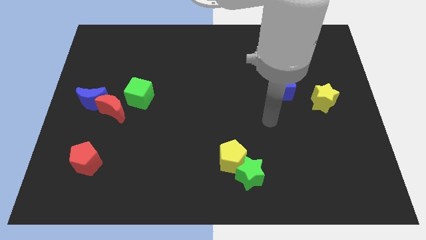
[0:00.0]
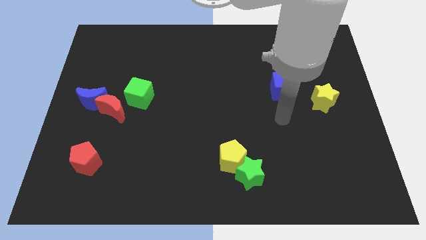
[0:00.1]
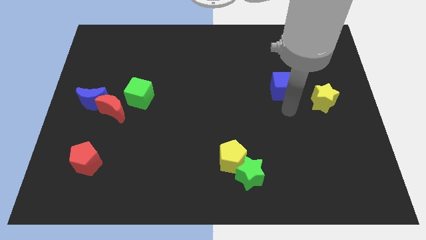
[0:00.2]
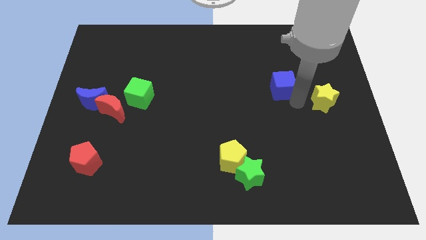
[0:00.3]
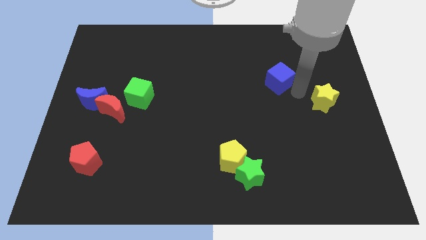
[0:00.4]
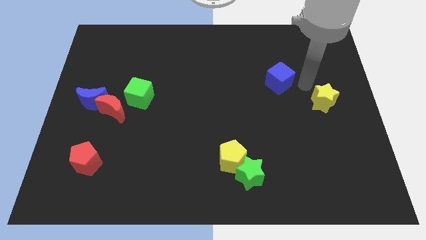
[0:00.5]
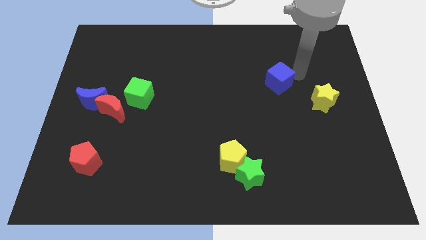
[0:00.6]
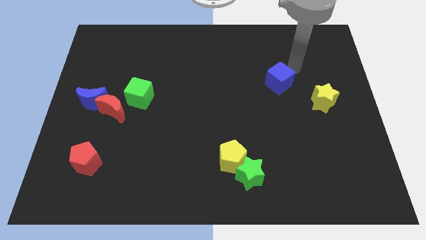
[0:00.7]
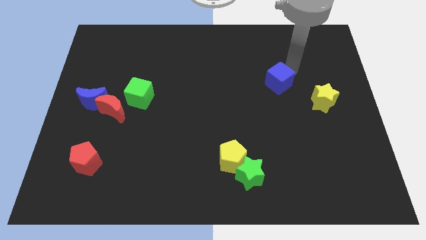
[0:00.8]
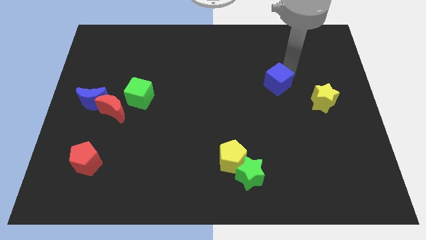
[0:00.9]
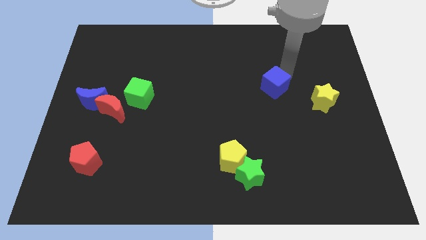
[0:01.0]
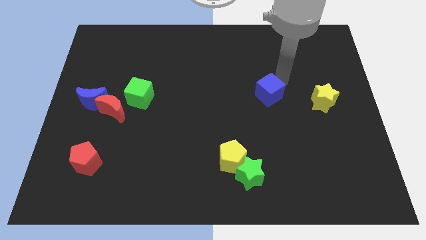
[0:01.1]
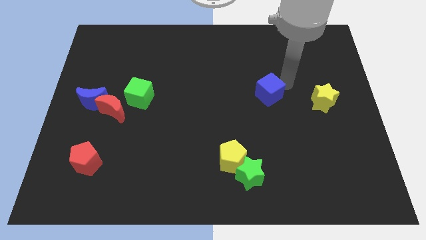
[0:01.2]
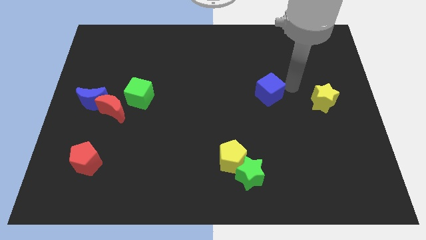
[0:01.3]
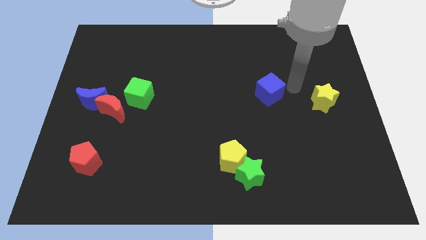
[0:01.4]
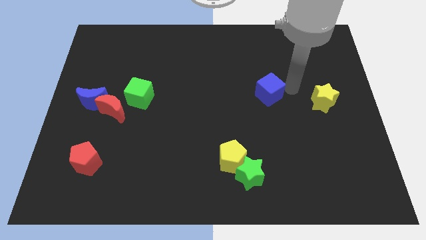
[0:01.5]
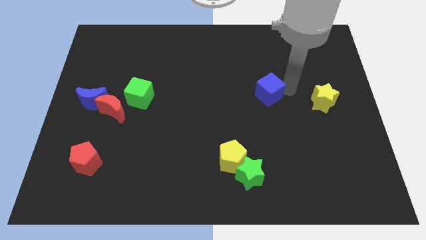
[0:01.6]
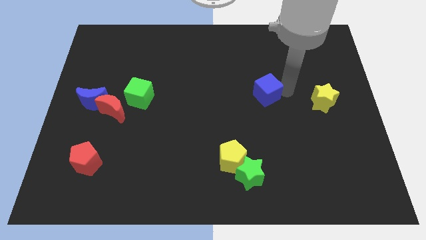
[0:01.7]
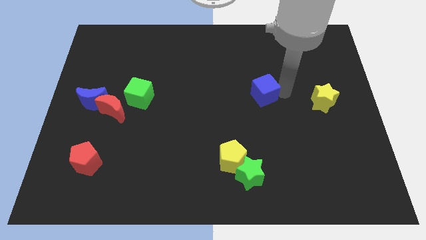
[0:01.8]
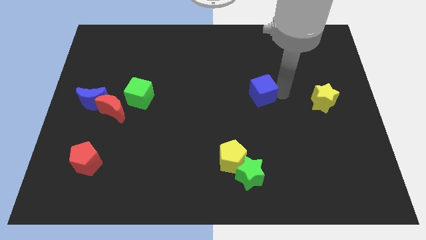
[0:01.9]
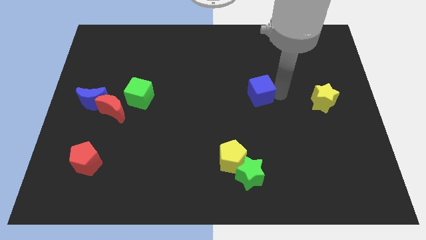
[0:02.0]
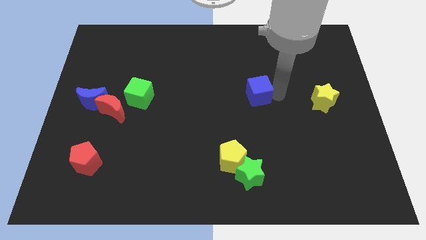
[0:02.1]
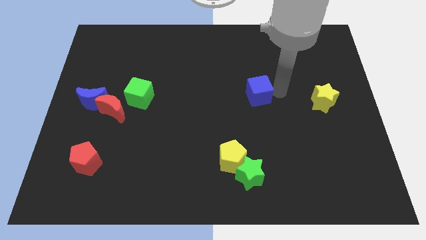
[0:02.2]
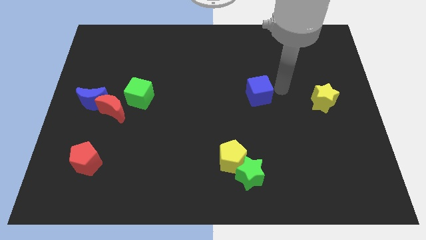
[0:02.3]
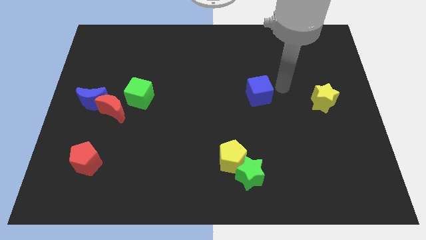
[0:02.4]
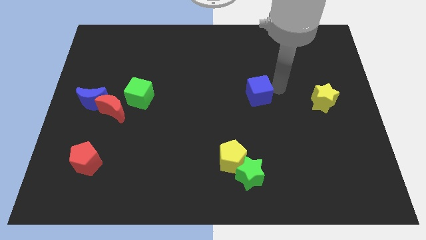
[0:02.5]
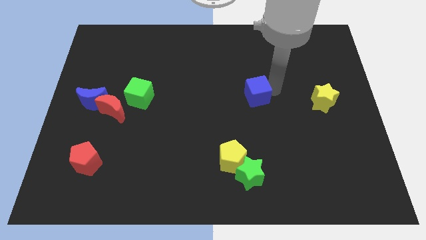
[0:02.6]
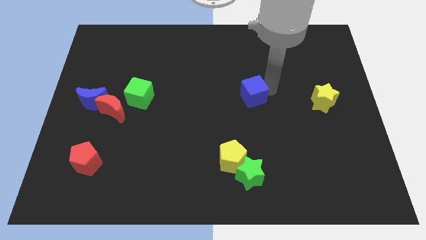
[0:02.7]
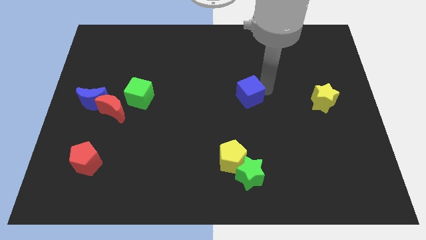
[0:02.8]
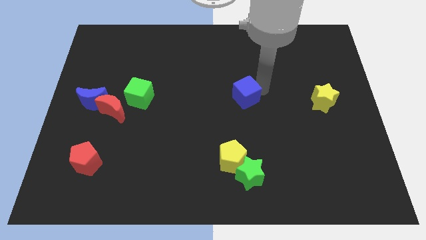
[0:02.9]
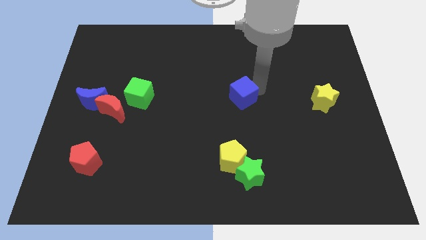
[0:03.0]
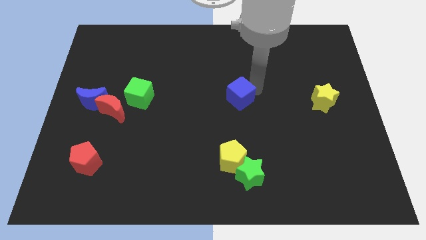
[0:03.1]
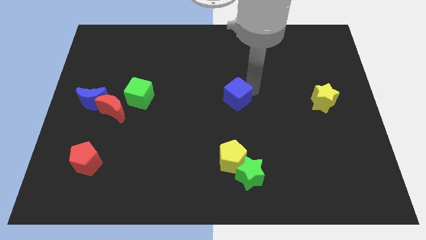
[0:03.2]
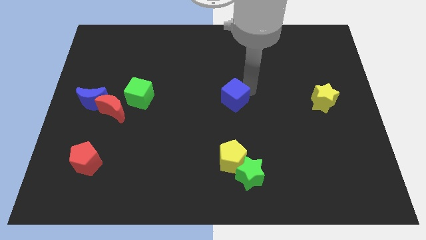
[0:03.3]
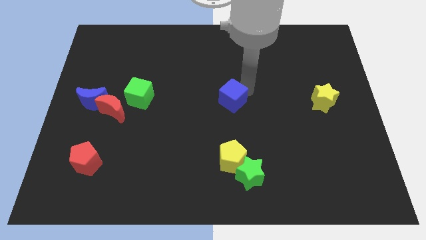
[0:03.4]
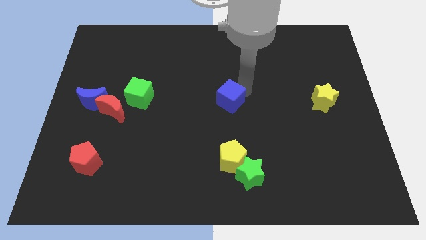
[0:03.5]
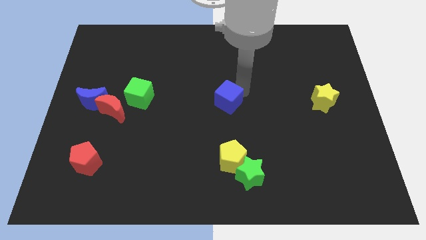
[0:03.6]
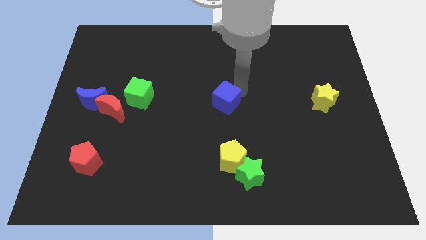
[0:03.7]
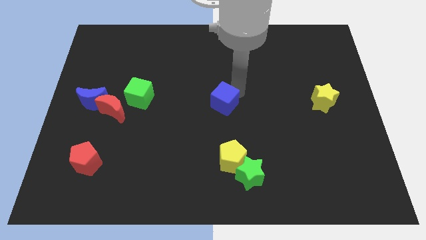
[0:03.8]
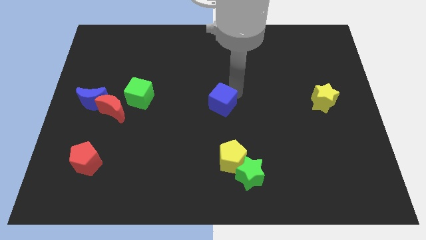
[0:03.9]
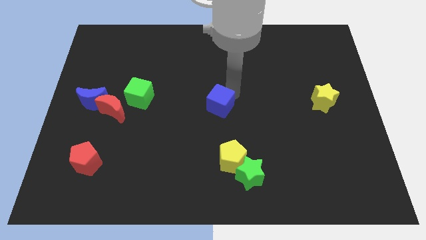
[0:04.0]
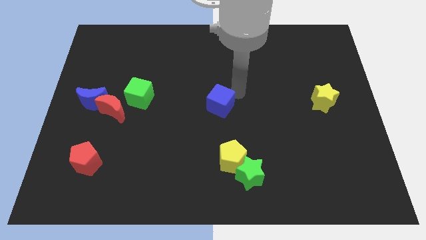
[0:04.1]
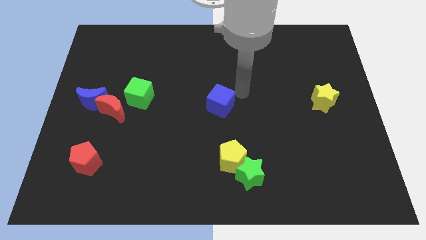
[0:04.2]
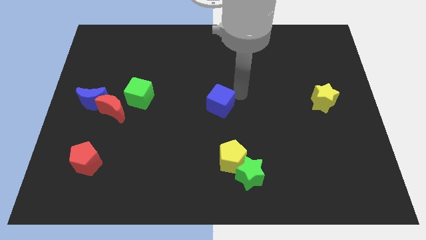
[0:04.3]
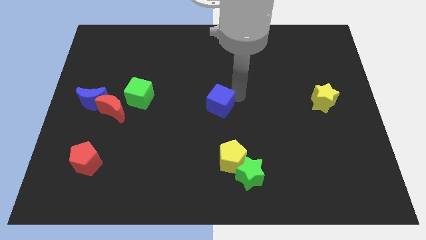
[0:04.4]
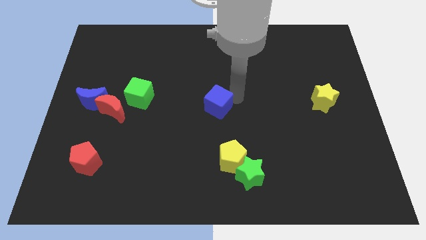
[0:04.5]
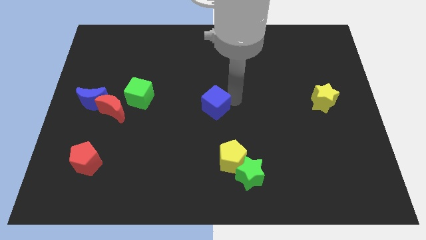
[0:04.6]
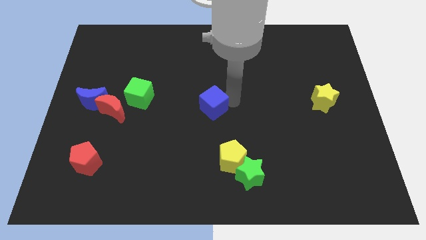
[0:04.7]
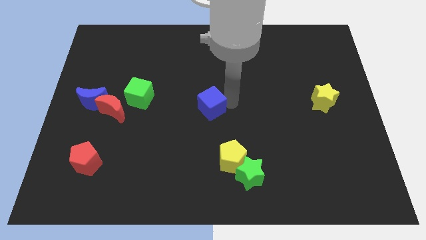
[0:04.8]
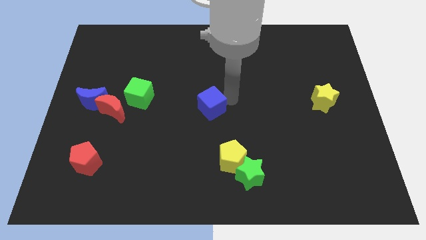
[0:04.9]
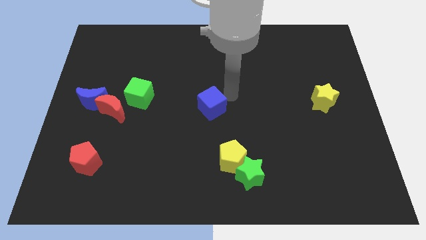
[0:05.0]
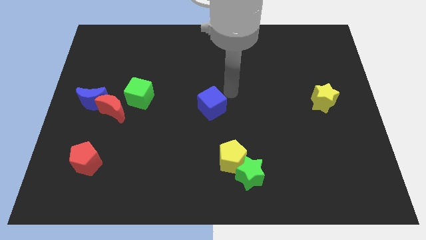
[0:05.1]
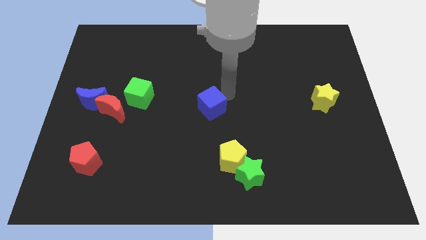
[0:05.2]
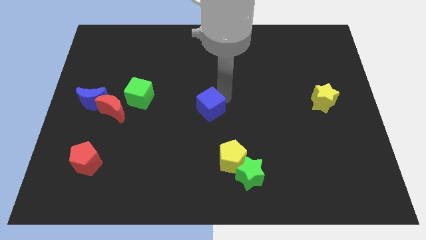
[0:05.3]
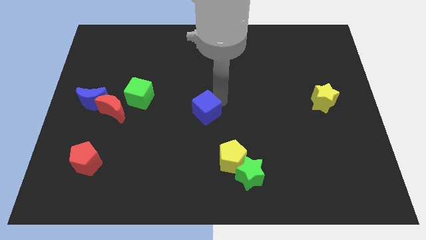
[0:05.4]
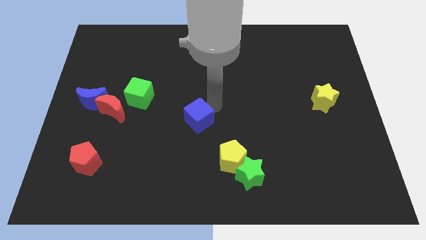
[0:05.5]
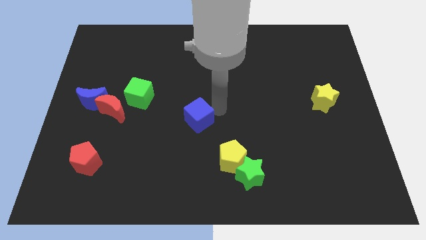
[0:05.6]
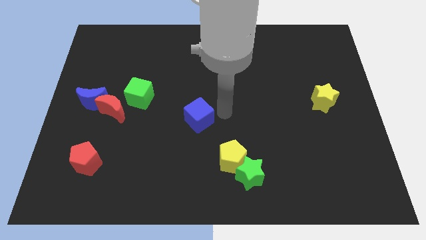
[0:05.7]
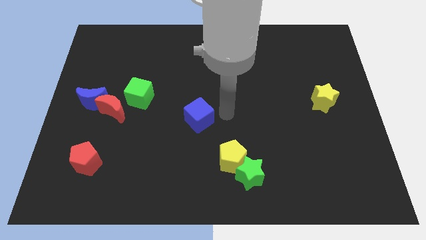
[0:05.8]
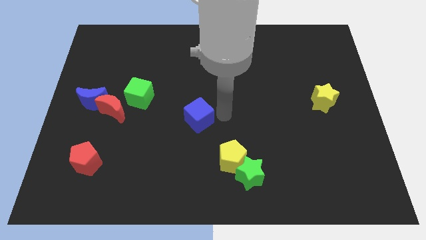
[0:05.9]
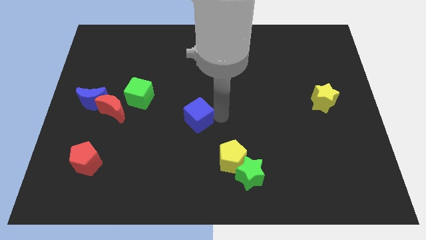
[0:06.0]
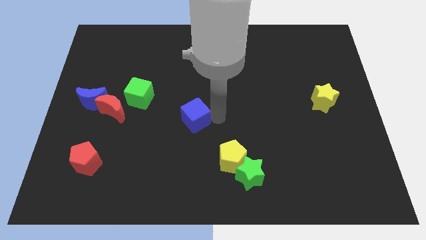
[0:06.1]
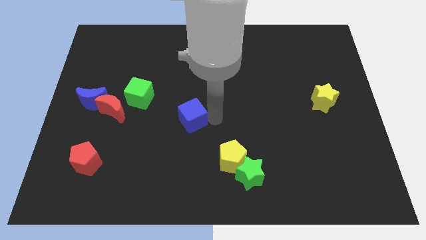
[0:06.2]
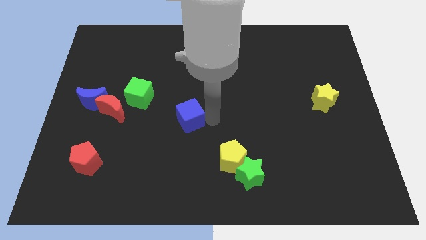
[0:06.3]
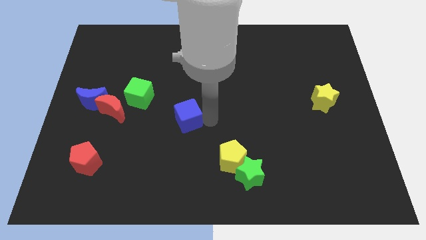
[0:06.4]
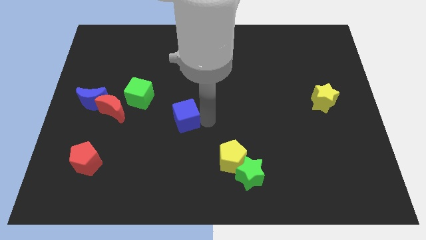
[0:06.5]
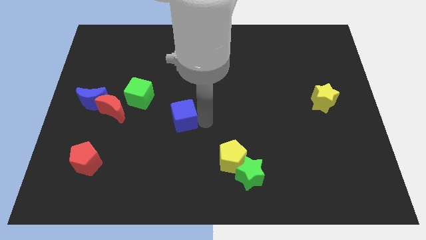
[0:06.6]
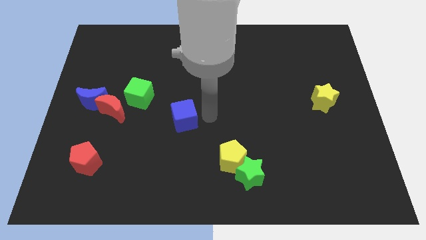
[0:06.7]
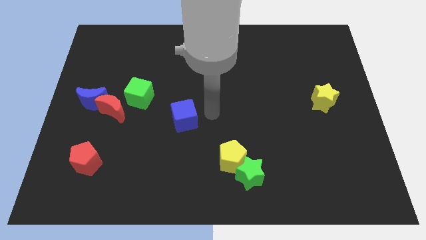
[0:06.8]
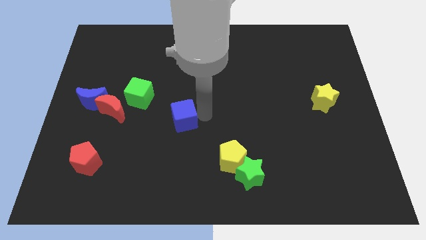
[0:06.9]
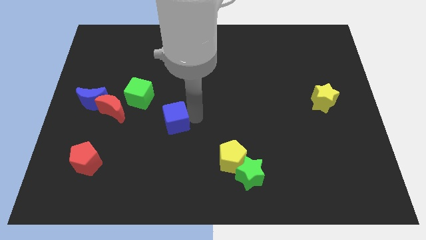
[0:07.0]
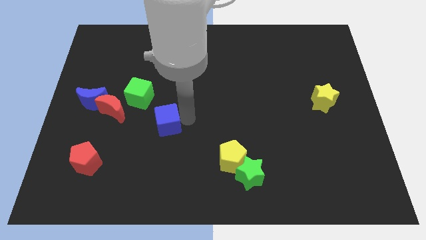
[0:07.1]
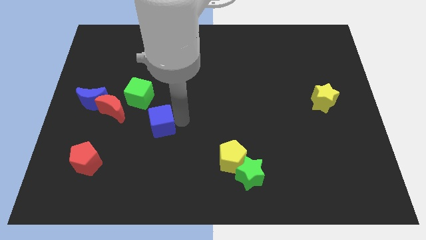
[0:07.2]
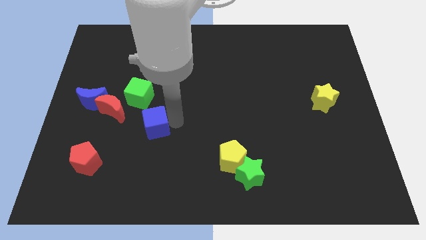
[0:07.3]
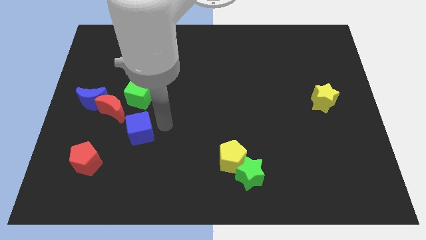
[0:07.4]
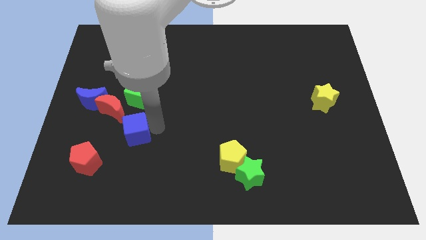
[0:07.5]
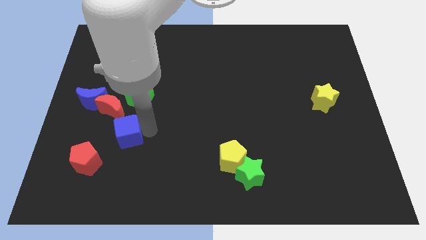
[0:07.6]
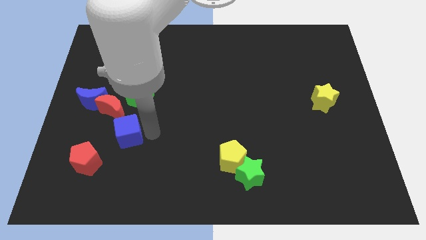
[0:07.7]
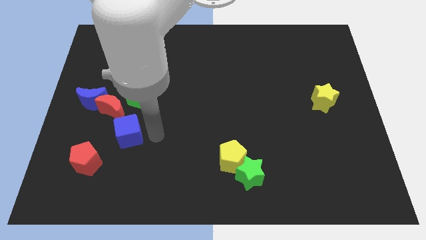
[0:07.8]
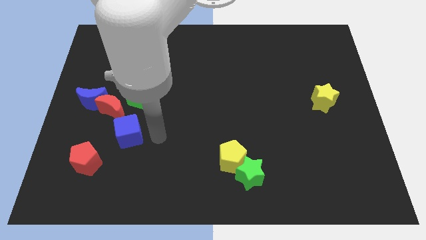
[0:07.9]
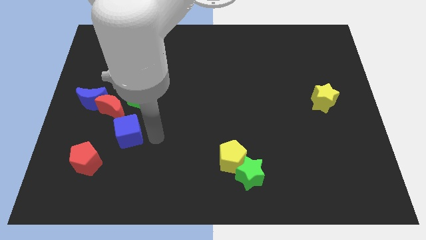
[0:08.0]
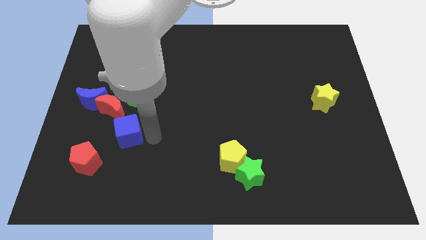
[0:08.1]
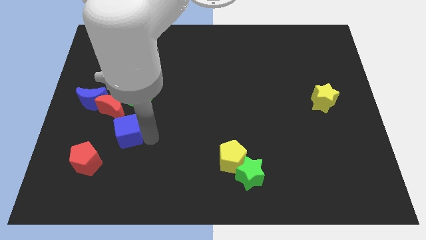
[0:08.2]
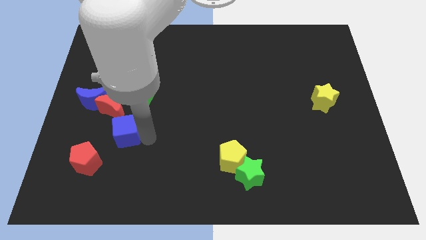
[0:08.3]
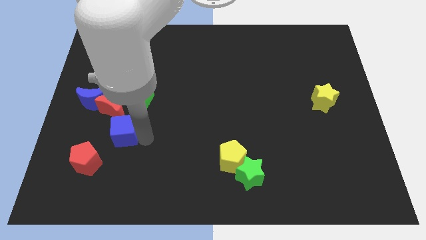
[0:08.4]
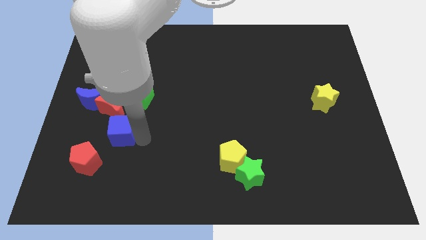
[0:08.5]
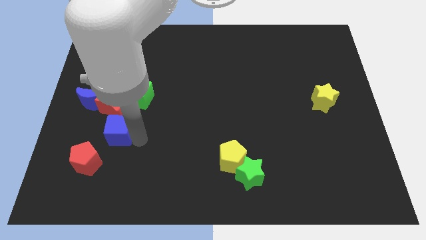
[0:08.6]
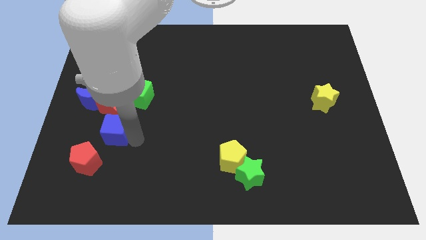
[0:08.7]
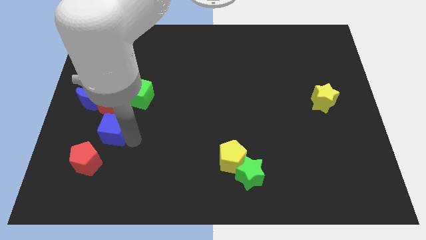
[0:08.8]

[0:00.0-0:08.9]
slide the blue cube to the bottom left of the green cube
